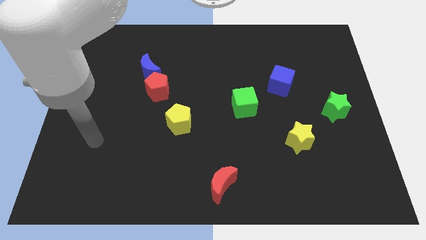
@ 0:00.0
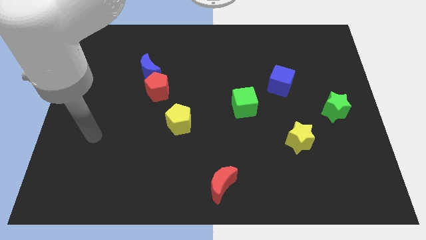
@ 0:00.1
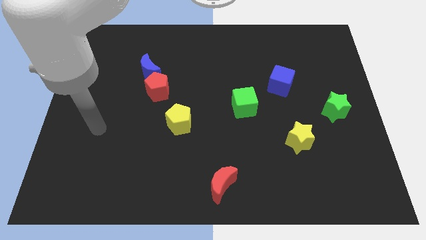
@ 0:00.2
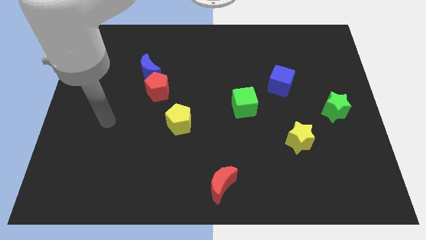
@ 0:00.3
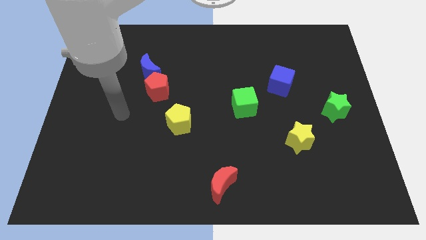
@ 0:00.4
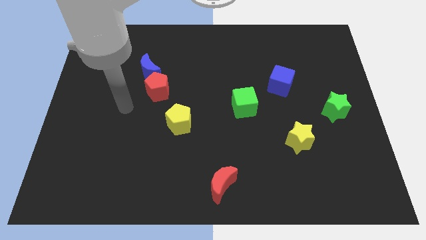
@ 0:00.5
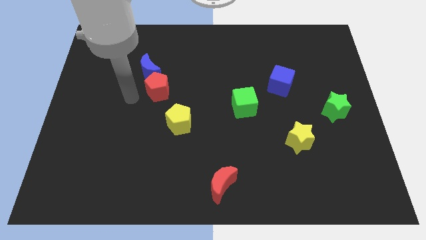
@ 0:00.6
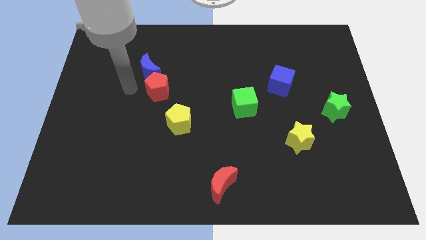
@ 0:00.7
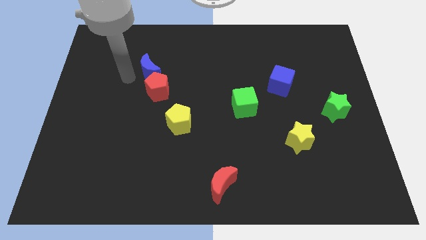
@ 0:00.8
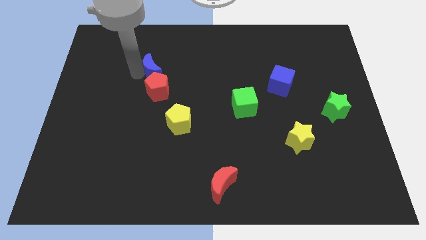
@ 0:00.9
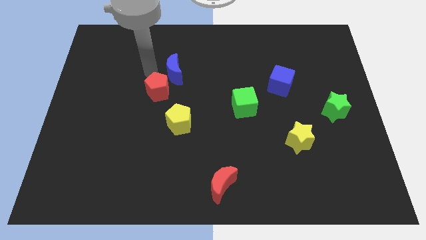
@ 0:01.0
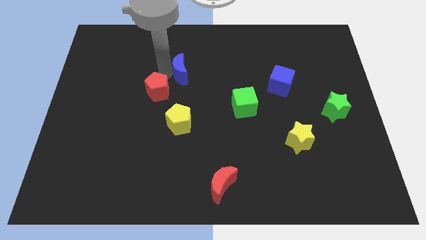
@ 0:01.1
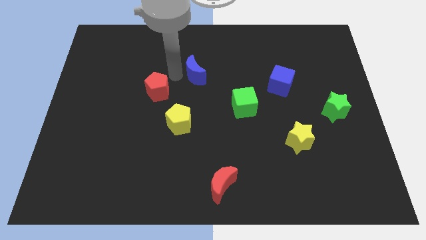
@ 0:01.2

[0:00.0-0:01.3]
pull the red pentagon apart from the blue moon

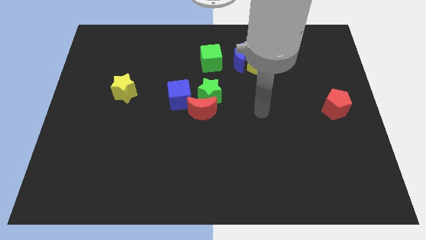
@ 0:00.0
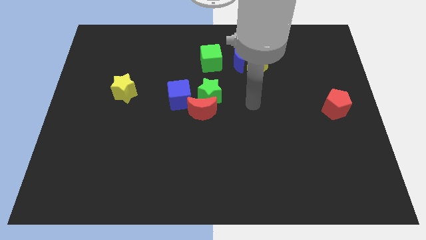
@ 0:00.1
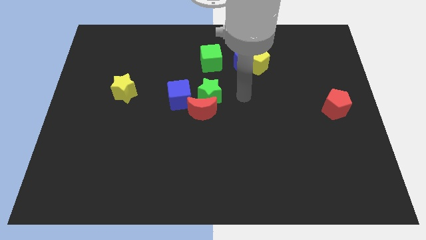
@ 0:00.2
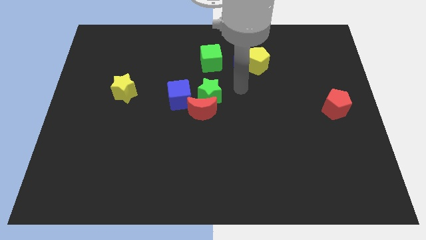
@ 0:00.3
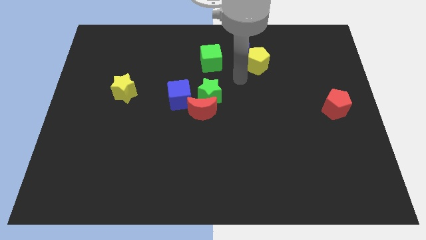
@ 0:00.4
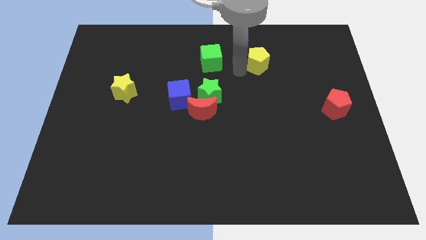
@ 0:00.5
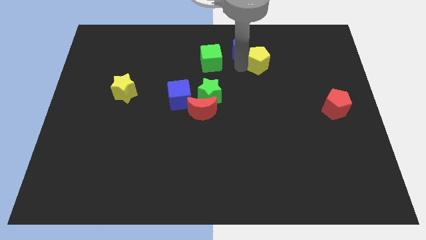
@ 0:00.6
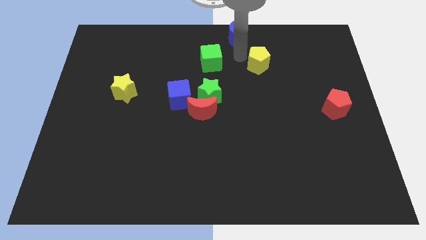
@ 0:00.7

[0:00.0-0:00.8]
pull the yellow pentagon apart from the blue moon

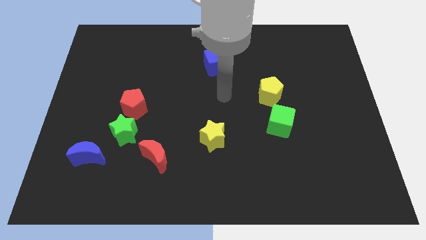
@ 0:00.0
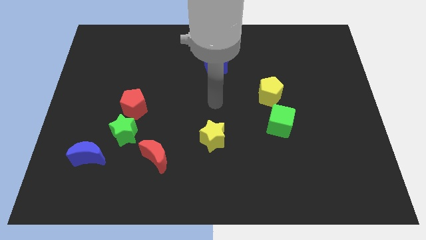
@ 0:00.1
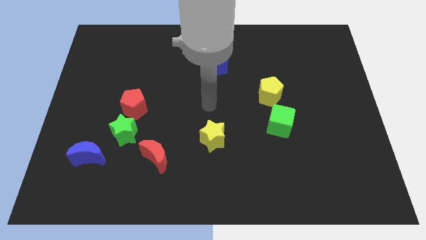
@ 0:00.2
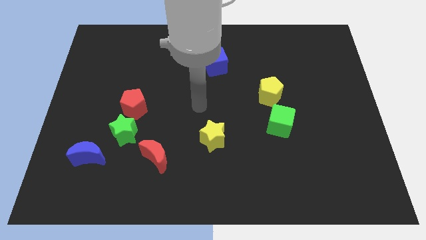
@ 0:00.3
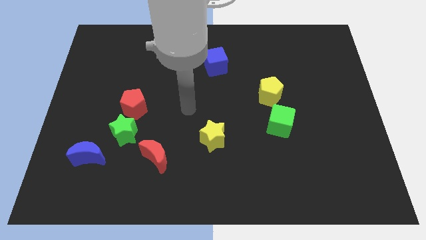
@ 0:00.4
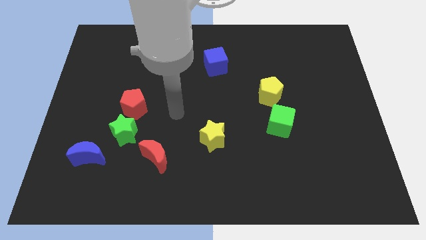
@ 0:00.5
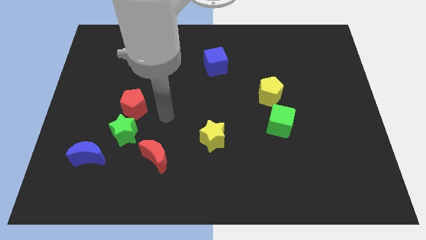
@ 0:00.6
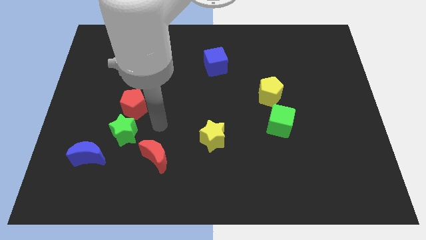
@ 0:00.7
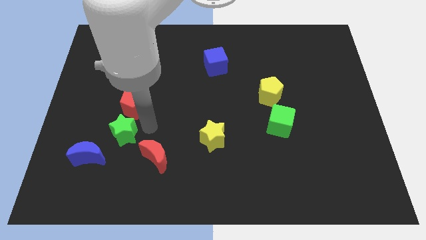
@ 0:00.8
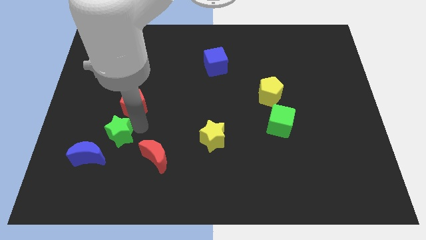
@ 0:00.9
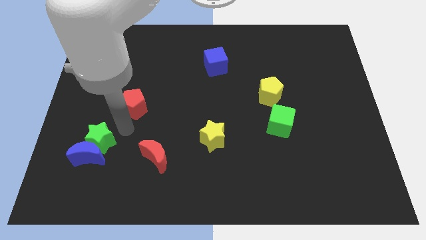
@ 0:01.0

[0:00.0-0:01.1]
separate the red pentagon from the green star

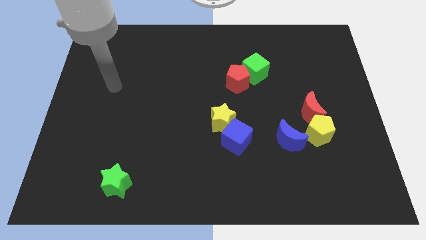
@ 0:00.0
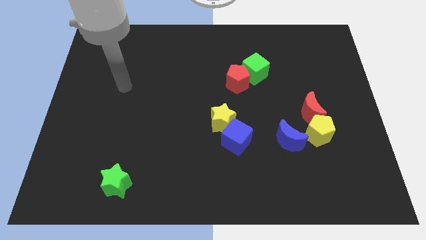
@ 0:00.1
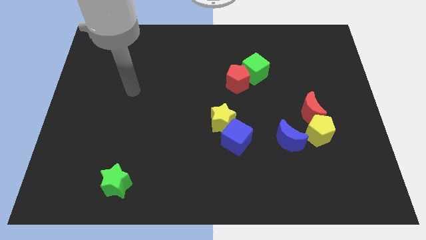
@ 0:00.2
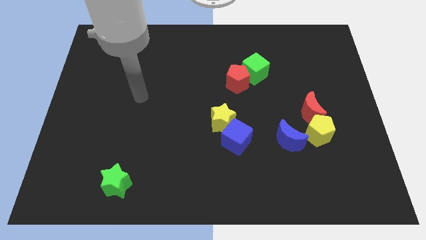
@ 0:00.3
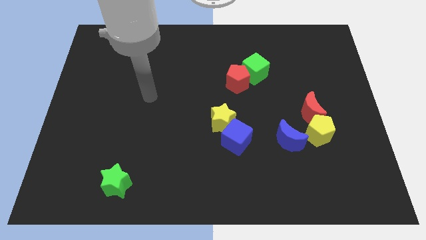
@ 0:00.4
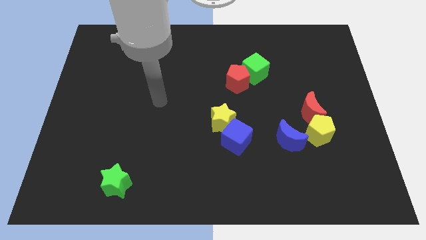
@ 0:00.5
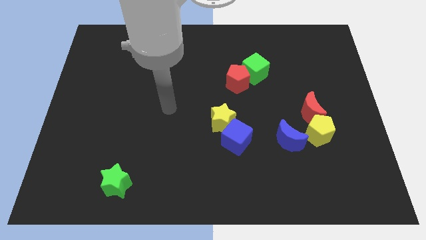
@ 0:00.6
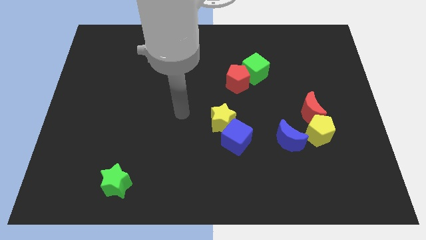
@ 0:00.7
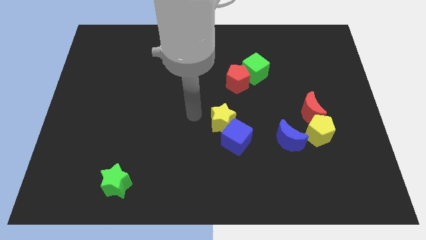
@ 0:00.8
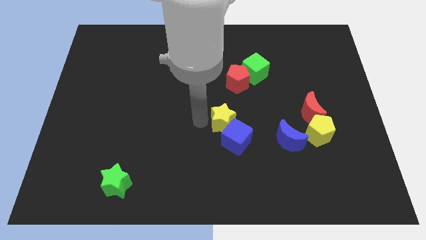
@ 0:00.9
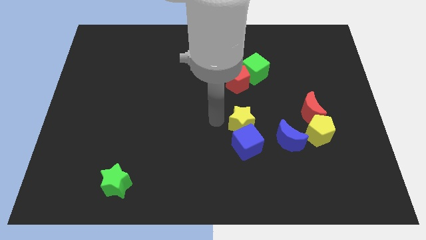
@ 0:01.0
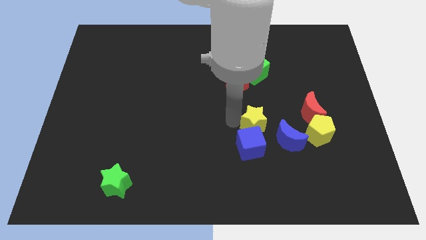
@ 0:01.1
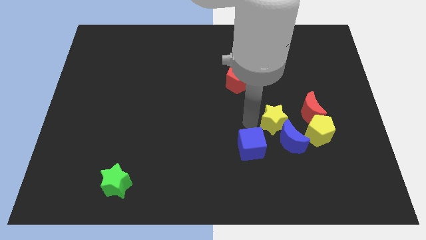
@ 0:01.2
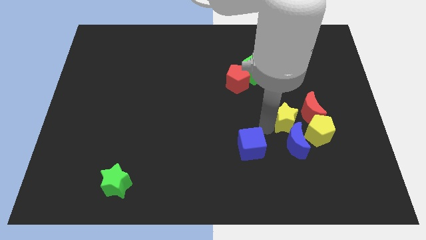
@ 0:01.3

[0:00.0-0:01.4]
pull the blue cube apart from the yellow star

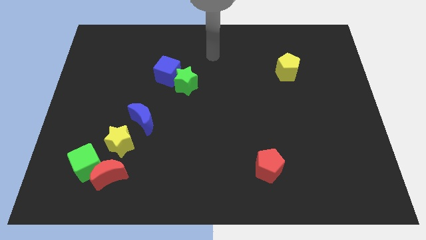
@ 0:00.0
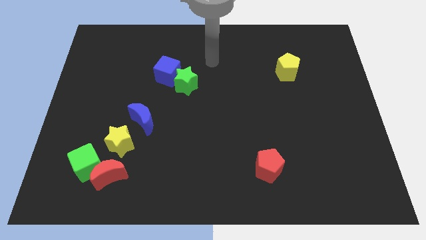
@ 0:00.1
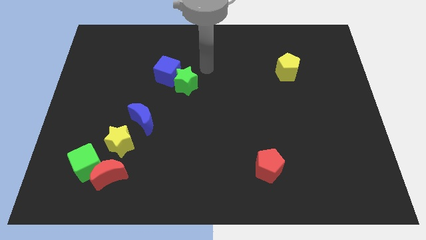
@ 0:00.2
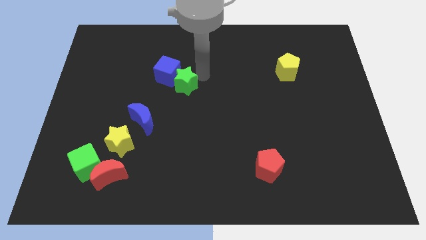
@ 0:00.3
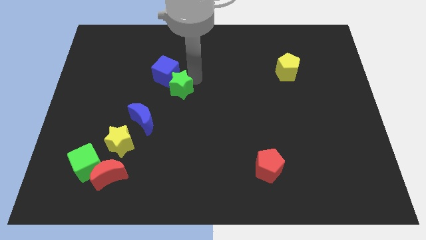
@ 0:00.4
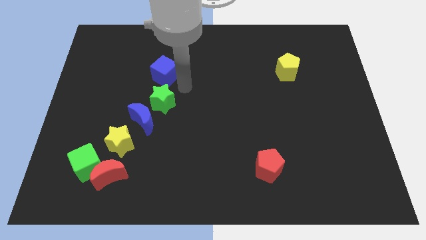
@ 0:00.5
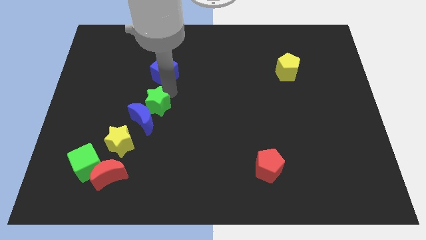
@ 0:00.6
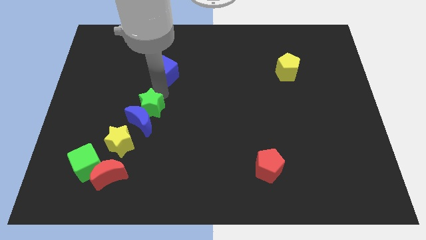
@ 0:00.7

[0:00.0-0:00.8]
pull the blue cube apart from the green star

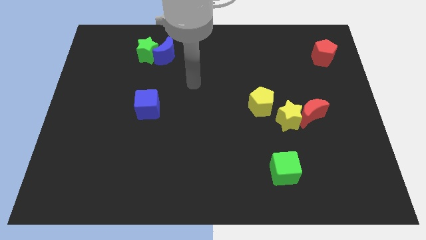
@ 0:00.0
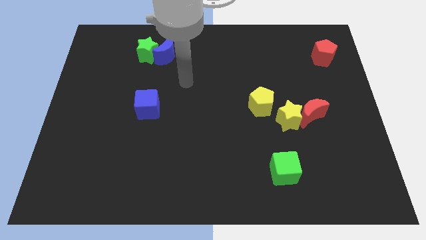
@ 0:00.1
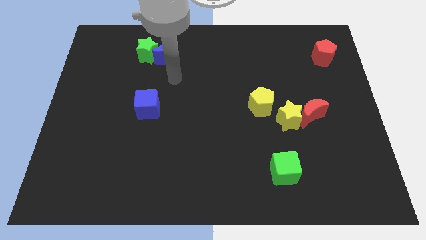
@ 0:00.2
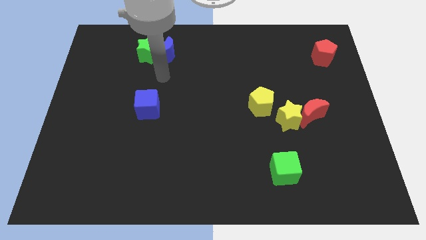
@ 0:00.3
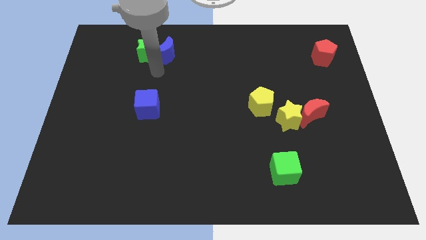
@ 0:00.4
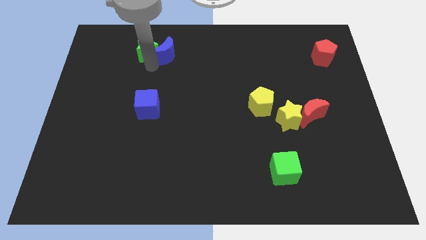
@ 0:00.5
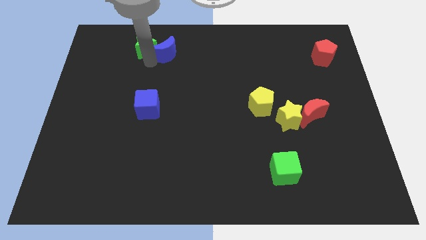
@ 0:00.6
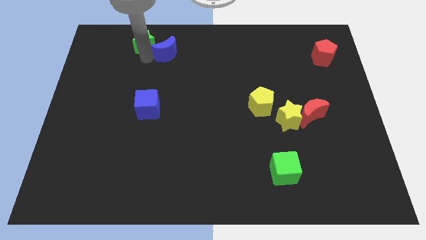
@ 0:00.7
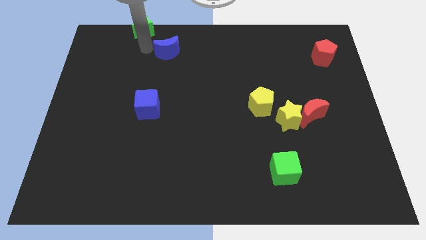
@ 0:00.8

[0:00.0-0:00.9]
pull the blue moon apart from the green star

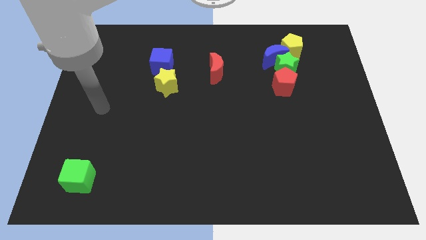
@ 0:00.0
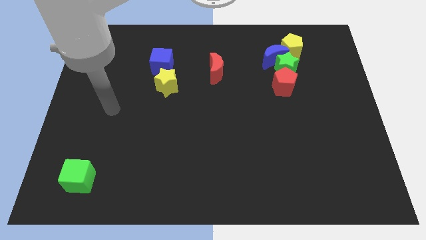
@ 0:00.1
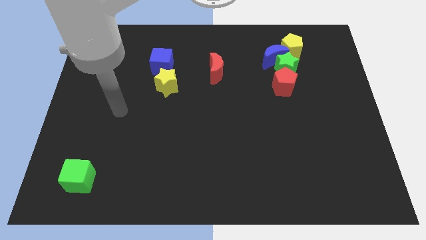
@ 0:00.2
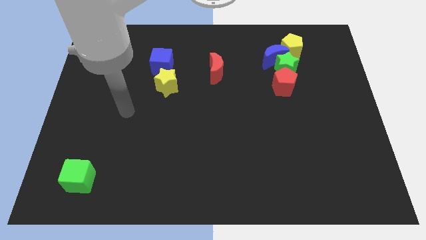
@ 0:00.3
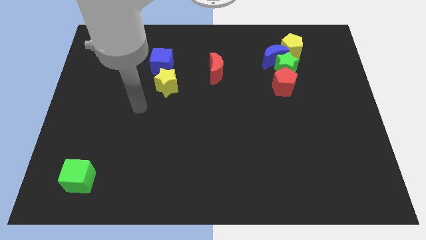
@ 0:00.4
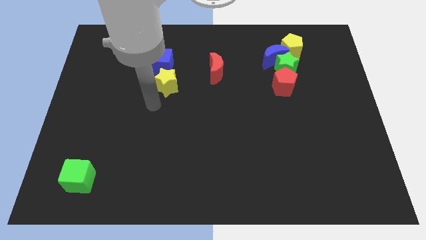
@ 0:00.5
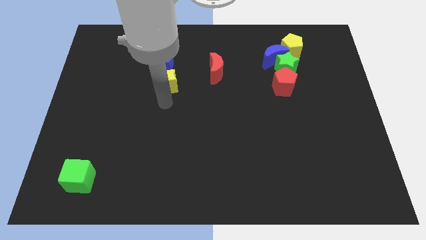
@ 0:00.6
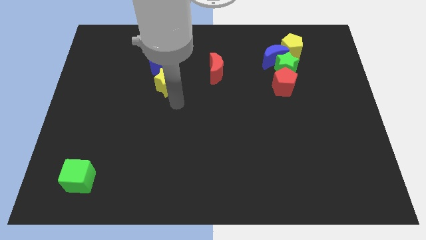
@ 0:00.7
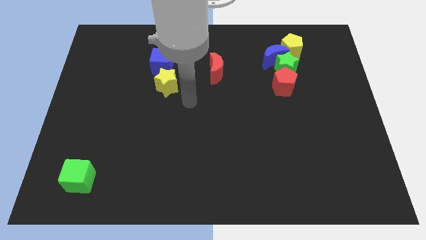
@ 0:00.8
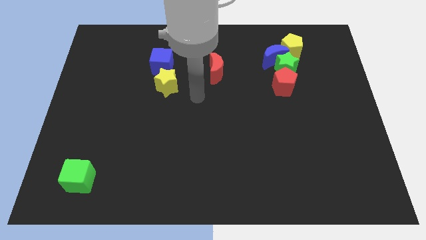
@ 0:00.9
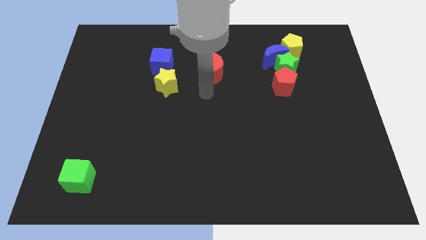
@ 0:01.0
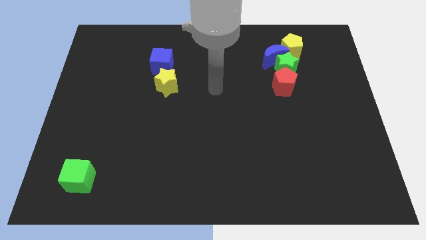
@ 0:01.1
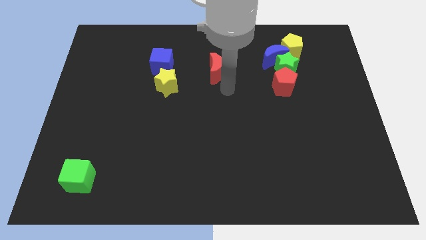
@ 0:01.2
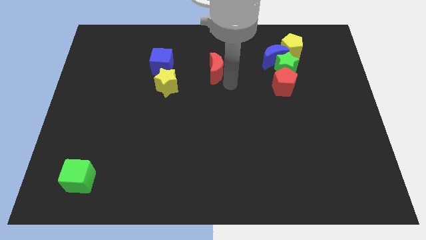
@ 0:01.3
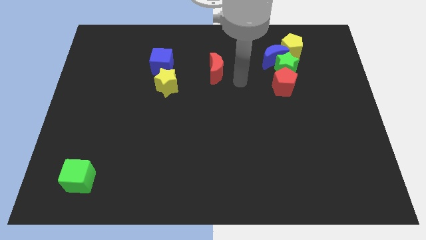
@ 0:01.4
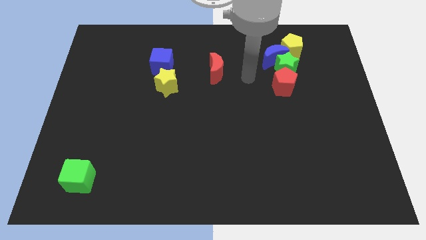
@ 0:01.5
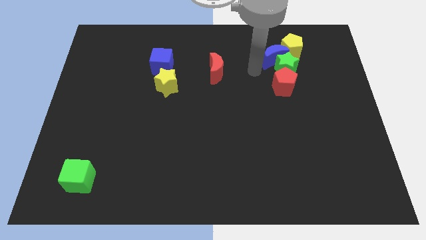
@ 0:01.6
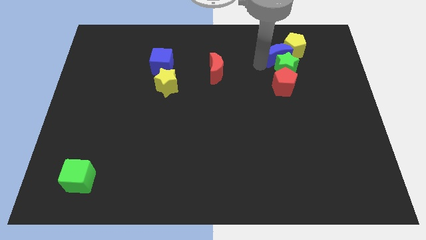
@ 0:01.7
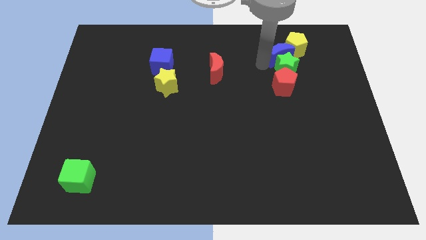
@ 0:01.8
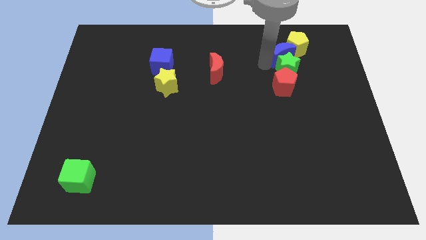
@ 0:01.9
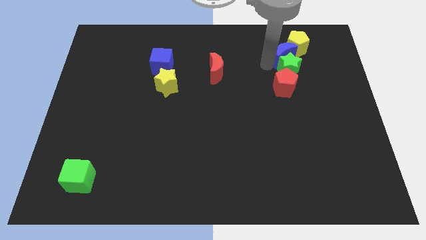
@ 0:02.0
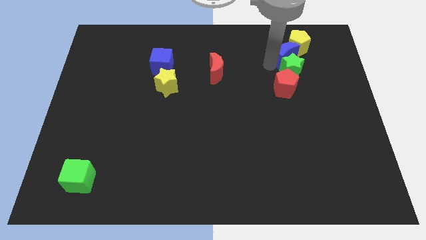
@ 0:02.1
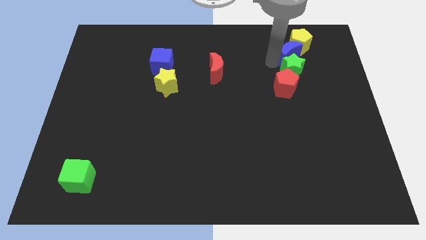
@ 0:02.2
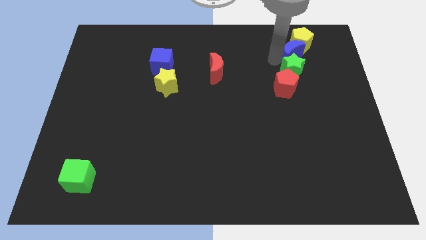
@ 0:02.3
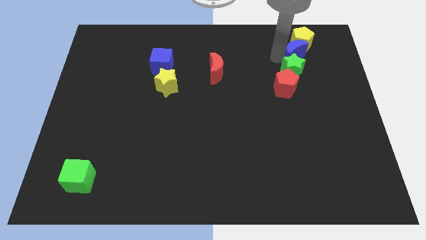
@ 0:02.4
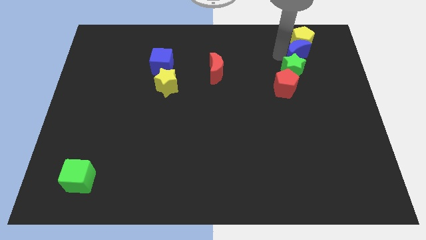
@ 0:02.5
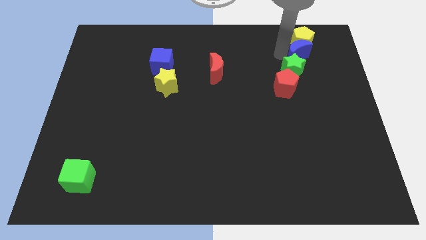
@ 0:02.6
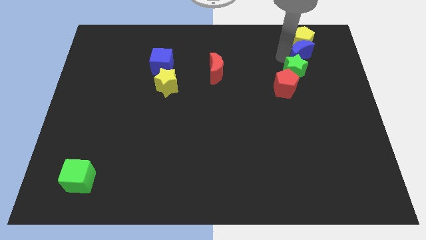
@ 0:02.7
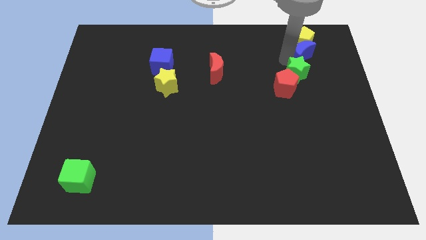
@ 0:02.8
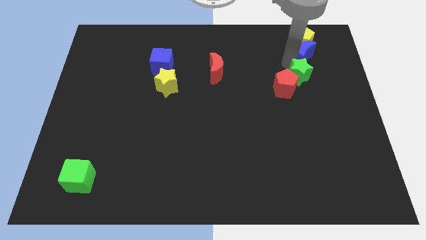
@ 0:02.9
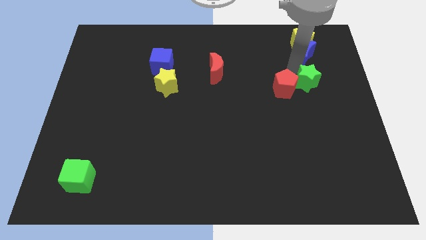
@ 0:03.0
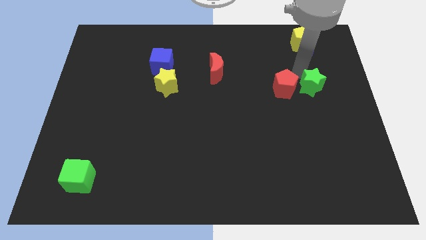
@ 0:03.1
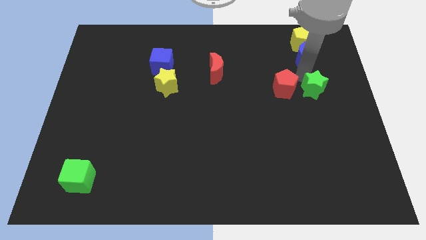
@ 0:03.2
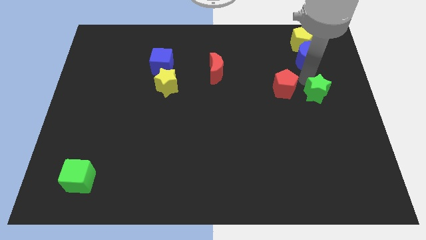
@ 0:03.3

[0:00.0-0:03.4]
pull the green star apart from the group
